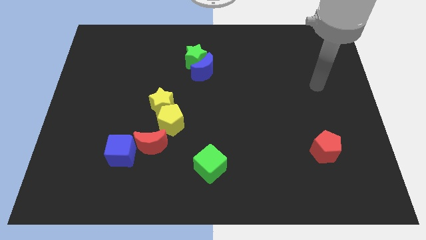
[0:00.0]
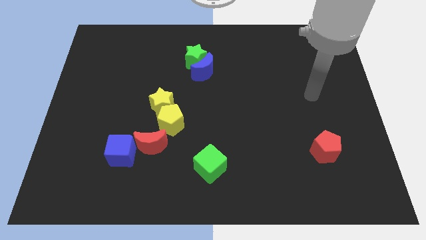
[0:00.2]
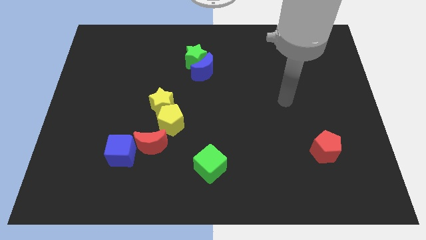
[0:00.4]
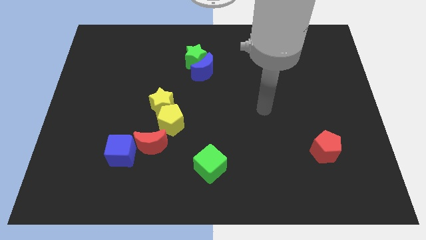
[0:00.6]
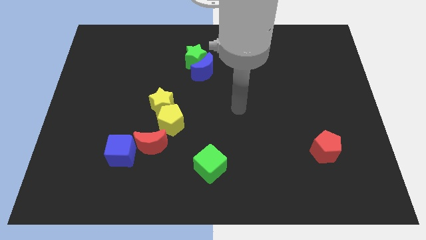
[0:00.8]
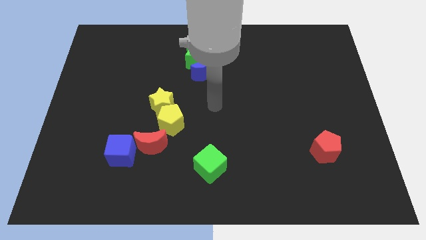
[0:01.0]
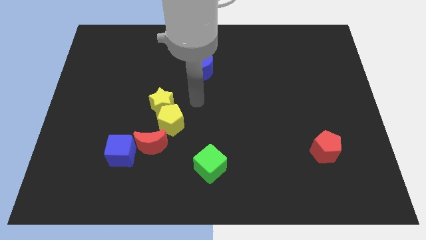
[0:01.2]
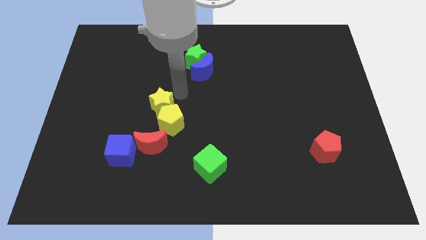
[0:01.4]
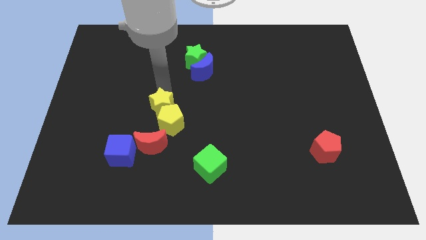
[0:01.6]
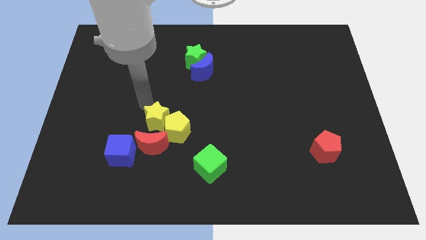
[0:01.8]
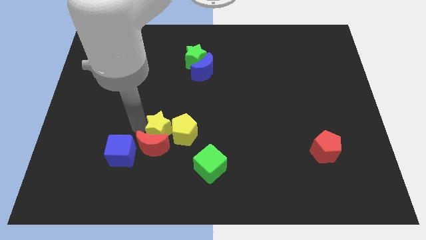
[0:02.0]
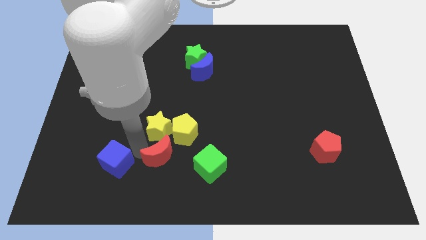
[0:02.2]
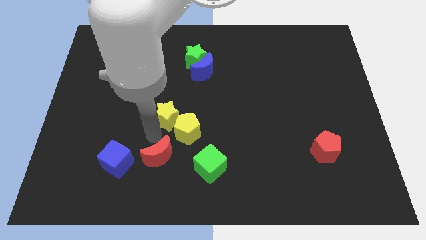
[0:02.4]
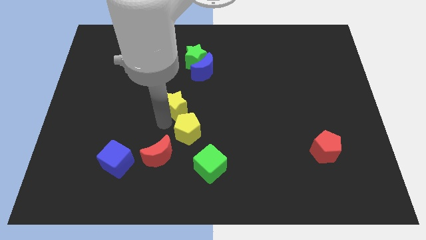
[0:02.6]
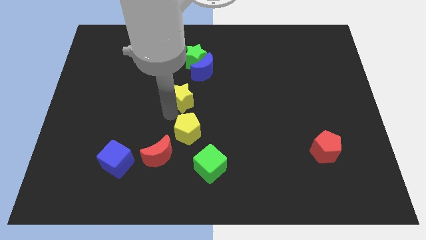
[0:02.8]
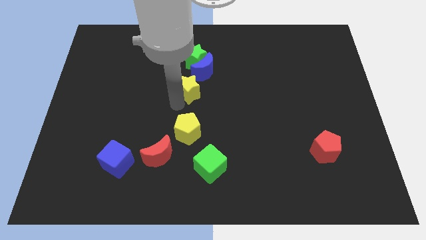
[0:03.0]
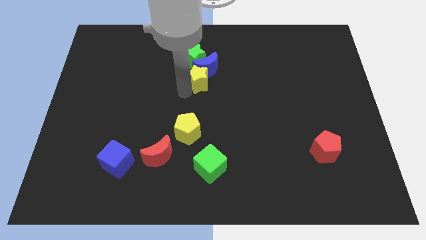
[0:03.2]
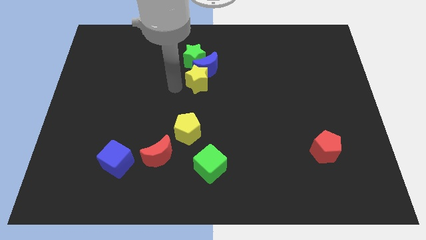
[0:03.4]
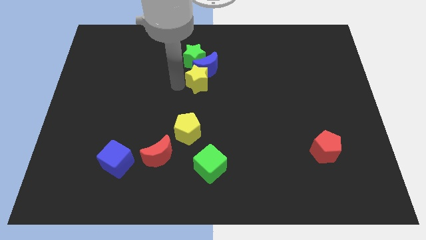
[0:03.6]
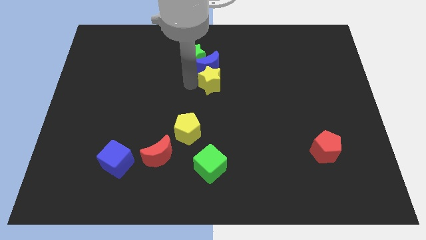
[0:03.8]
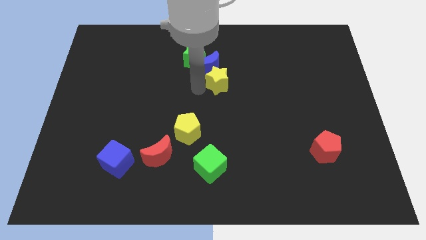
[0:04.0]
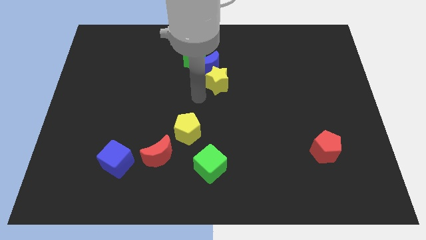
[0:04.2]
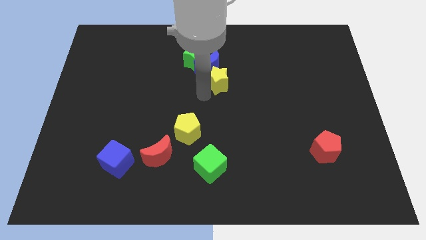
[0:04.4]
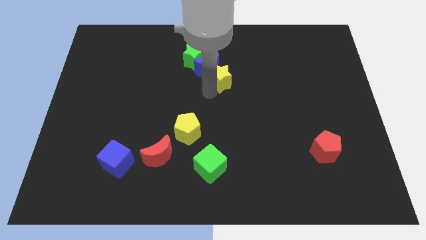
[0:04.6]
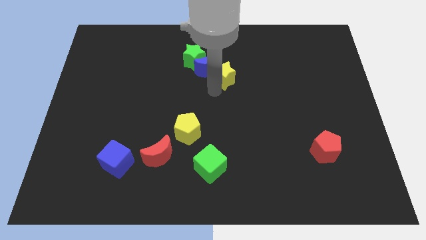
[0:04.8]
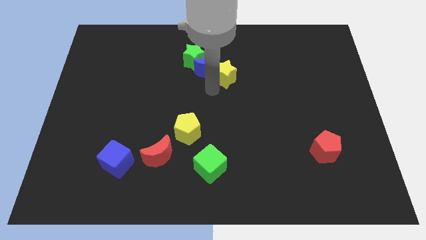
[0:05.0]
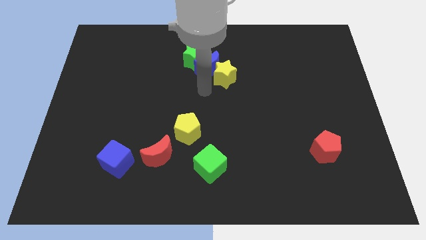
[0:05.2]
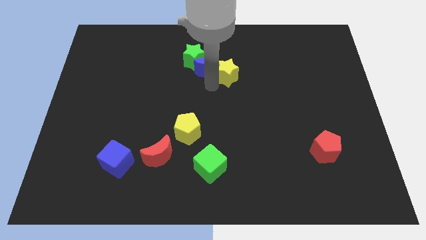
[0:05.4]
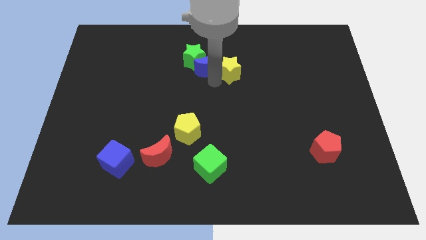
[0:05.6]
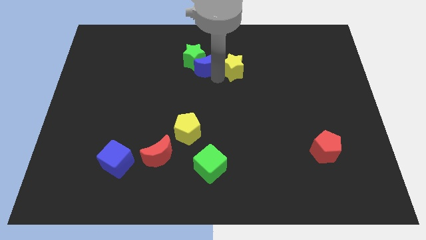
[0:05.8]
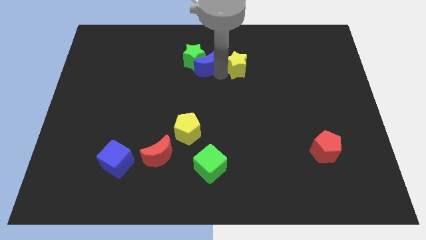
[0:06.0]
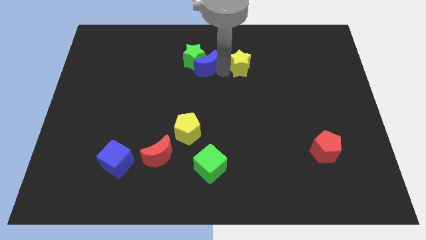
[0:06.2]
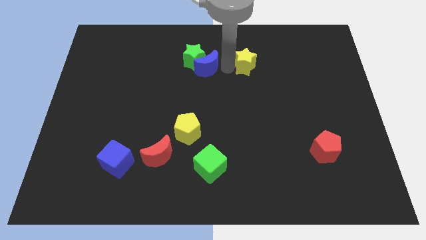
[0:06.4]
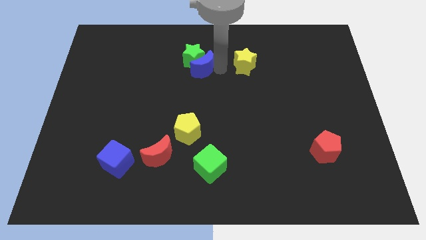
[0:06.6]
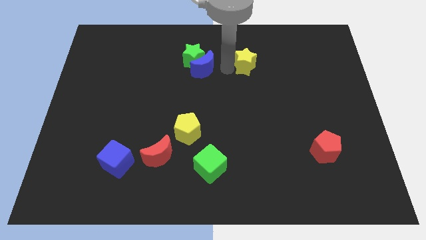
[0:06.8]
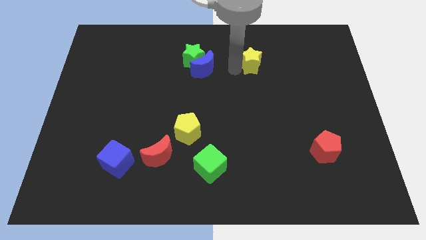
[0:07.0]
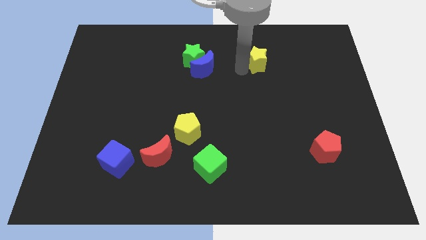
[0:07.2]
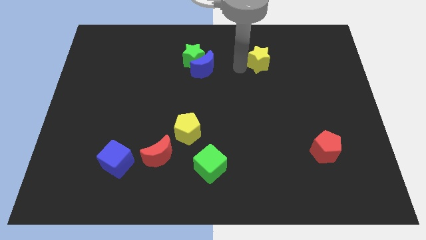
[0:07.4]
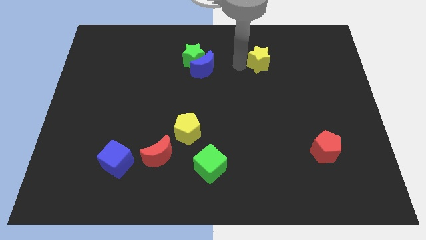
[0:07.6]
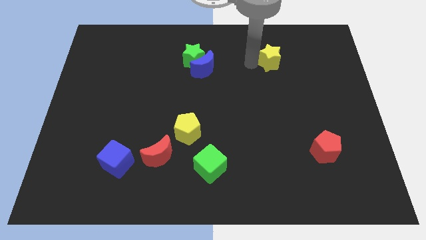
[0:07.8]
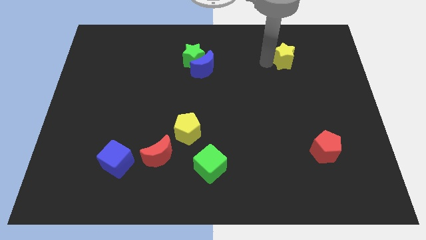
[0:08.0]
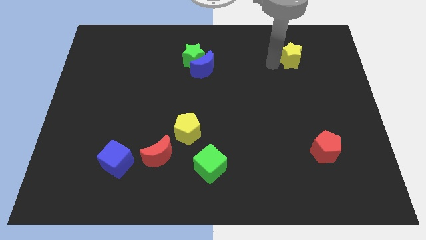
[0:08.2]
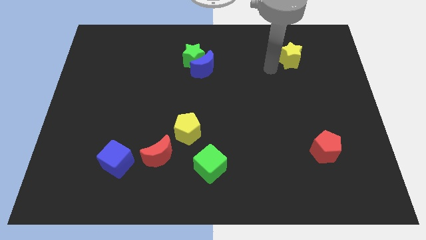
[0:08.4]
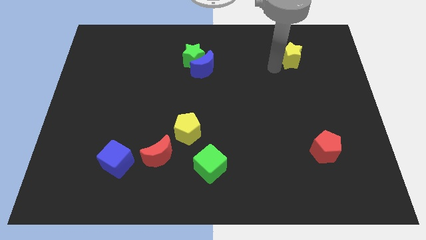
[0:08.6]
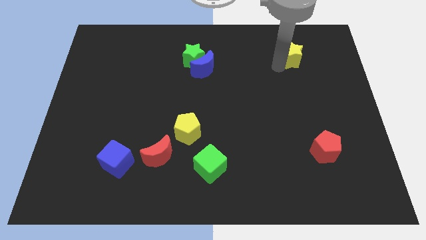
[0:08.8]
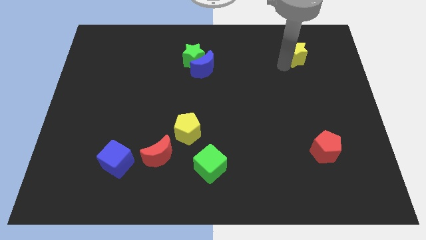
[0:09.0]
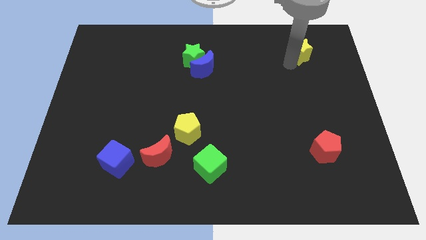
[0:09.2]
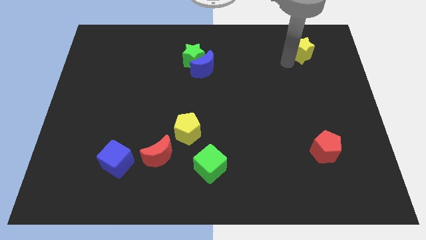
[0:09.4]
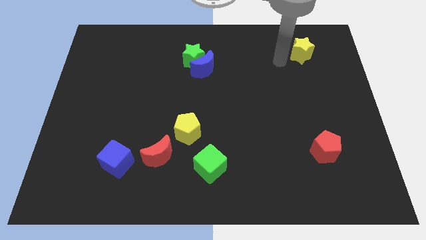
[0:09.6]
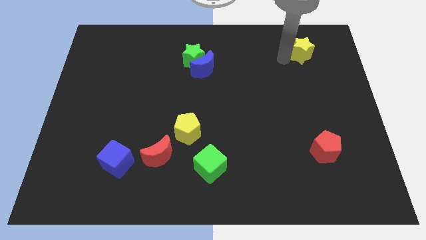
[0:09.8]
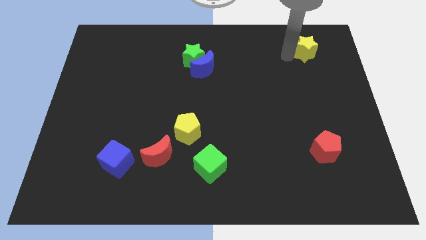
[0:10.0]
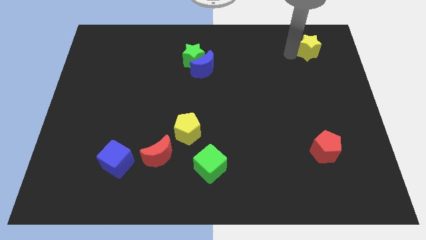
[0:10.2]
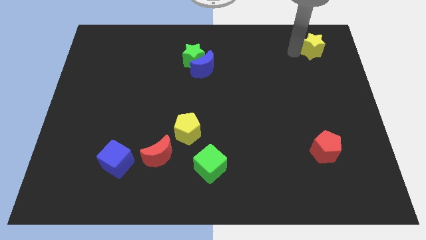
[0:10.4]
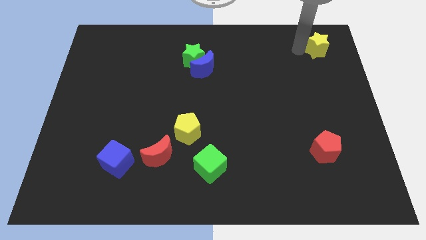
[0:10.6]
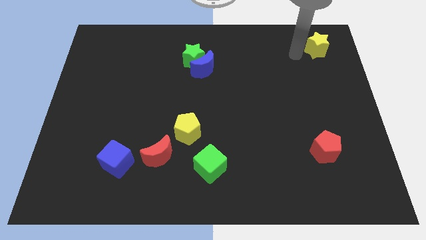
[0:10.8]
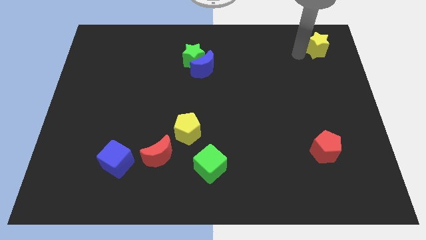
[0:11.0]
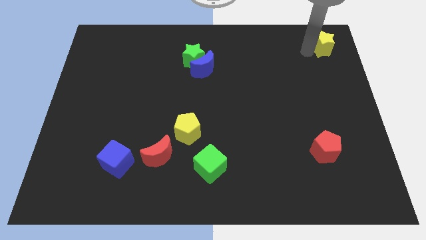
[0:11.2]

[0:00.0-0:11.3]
push the yellow star to the top right corner

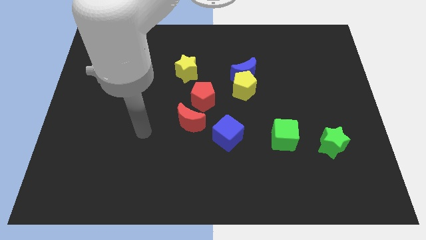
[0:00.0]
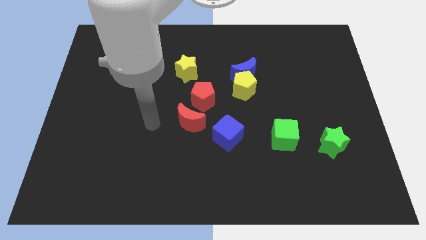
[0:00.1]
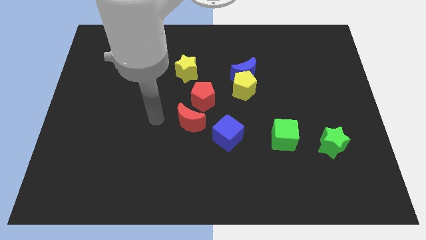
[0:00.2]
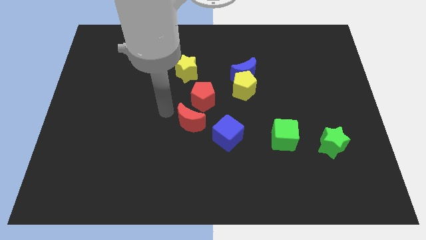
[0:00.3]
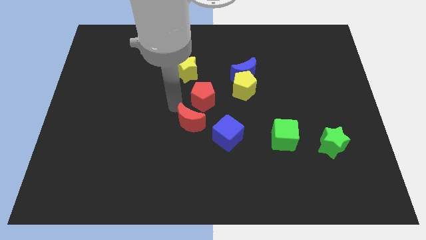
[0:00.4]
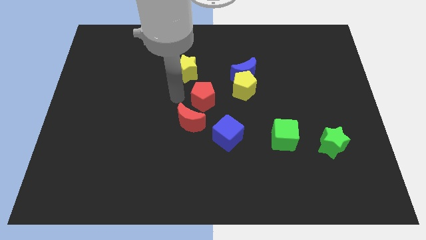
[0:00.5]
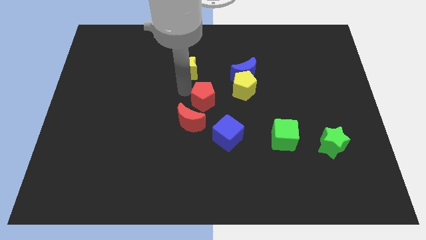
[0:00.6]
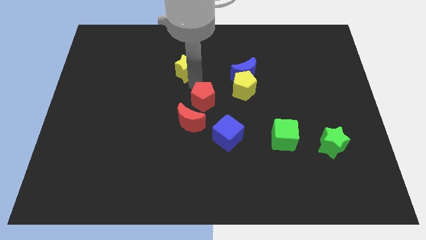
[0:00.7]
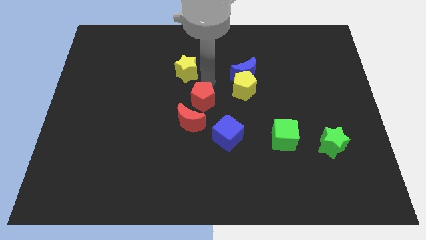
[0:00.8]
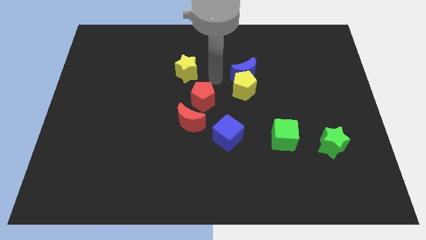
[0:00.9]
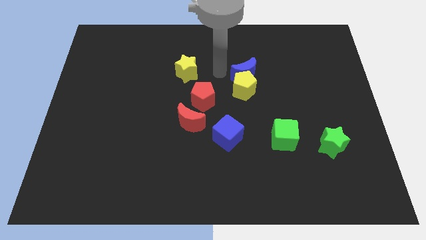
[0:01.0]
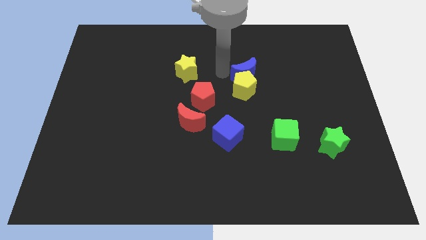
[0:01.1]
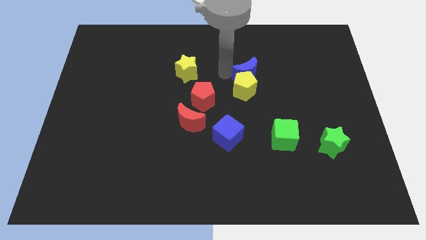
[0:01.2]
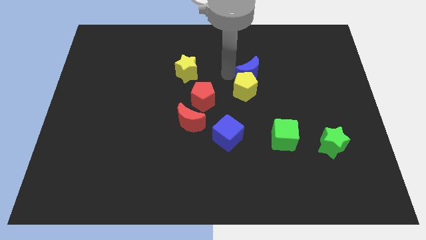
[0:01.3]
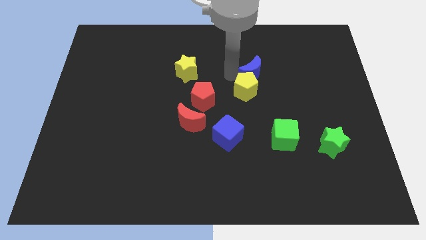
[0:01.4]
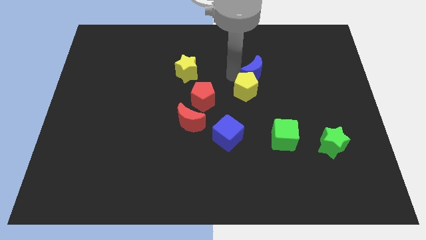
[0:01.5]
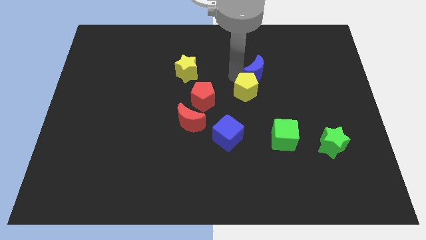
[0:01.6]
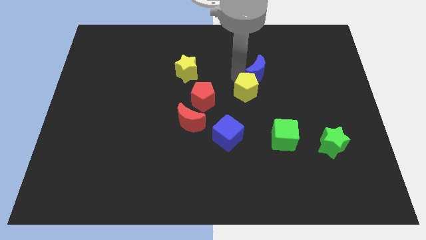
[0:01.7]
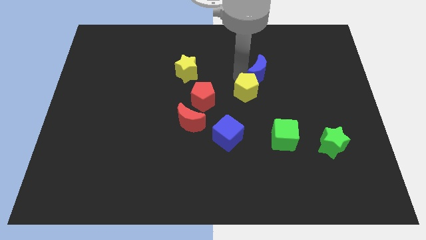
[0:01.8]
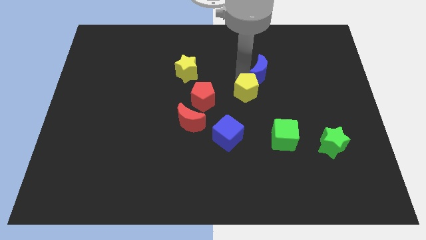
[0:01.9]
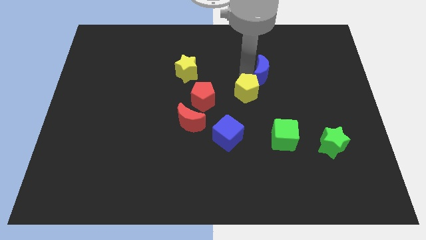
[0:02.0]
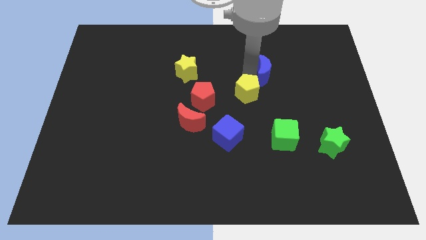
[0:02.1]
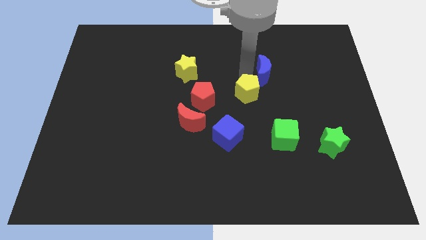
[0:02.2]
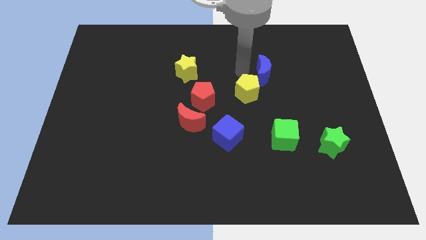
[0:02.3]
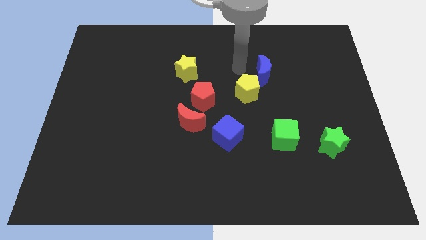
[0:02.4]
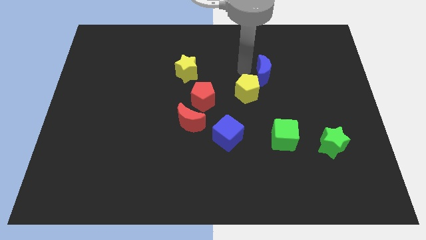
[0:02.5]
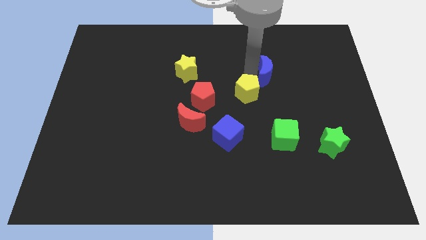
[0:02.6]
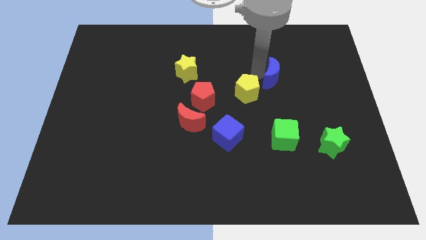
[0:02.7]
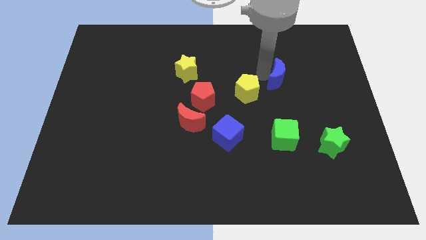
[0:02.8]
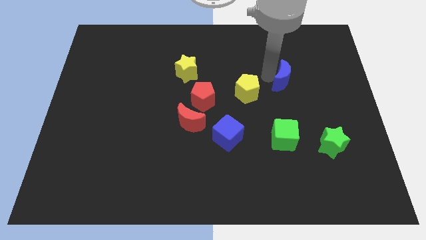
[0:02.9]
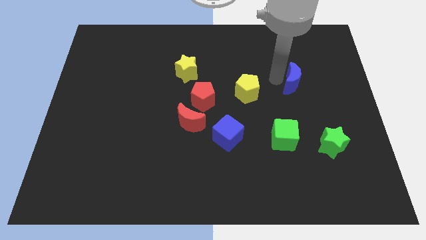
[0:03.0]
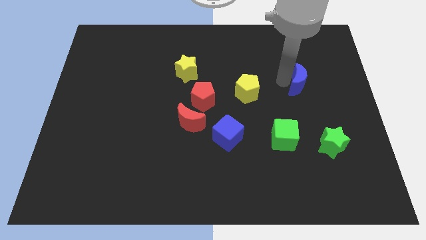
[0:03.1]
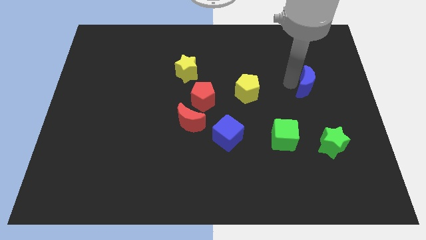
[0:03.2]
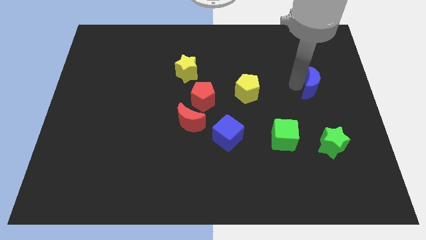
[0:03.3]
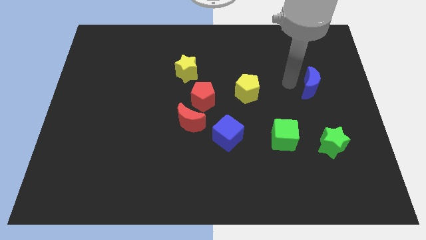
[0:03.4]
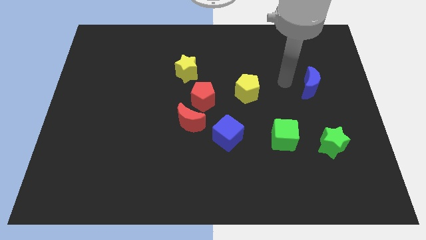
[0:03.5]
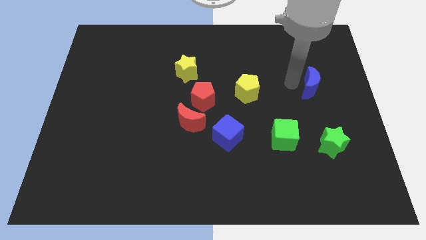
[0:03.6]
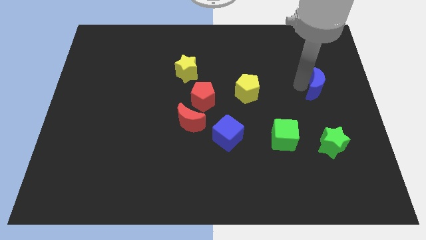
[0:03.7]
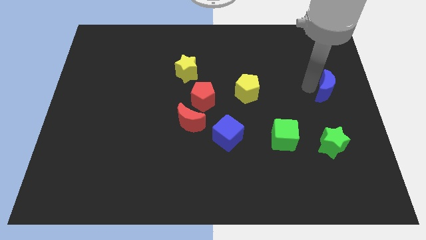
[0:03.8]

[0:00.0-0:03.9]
push the blue moon to the right side of the board
